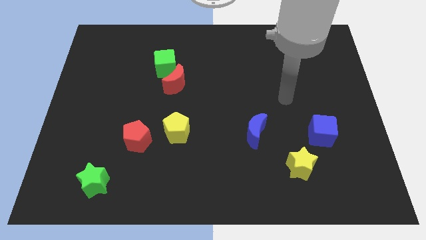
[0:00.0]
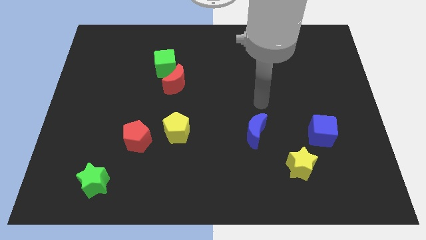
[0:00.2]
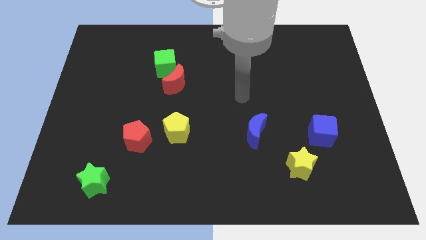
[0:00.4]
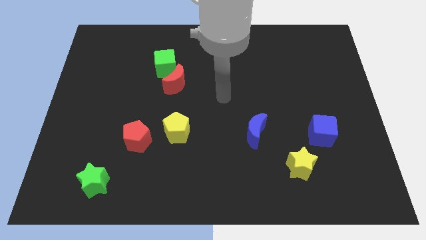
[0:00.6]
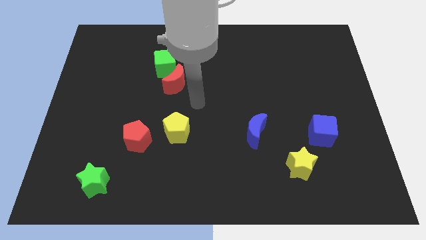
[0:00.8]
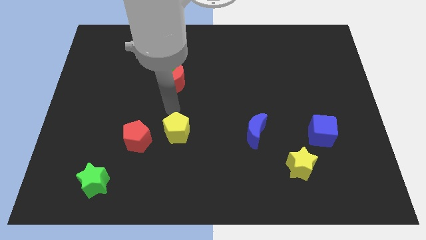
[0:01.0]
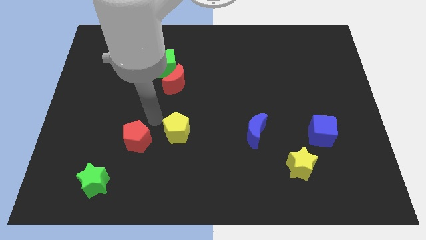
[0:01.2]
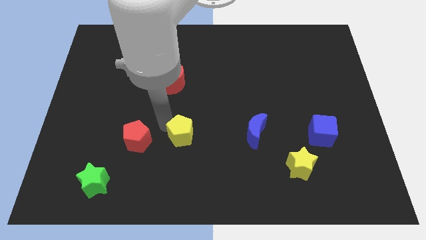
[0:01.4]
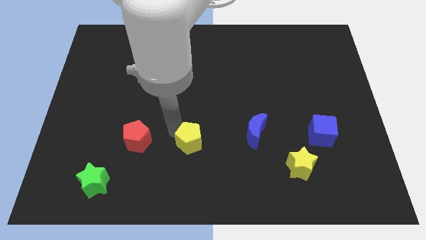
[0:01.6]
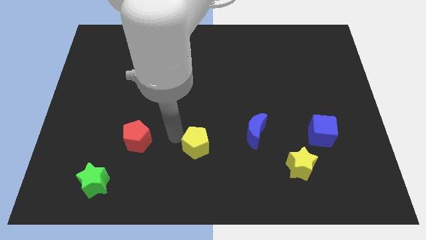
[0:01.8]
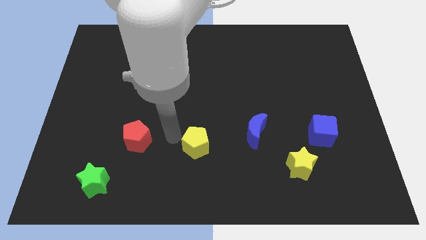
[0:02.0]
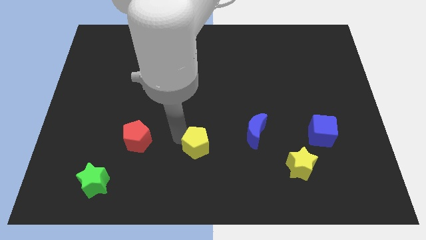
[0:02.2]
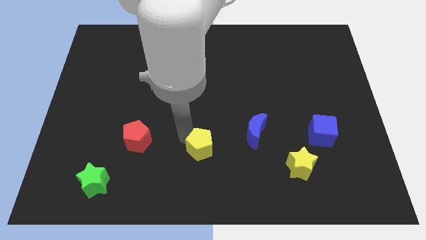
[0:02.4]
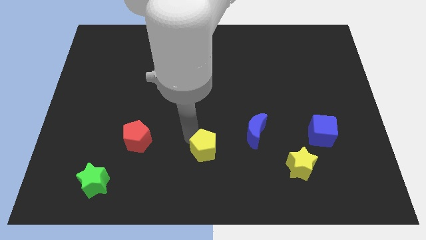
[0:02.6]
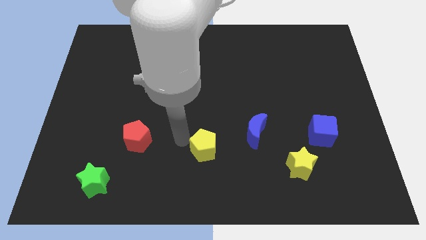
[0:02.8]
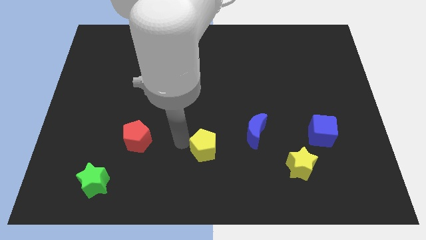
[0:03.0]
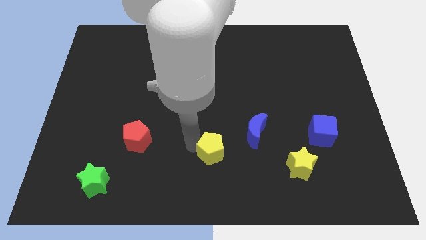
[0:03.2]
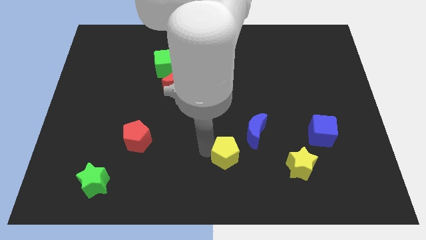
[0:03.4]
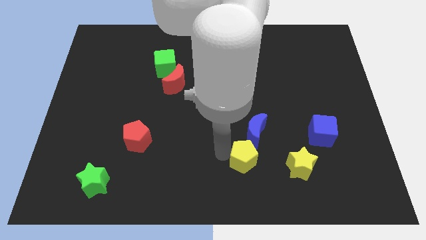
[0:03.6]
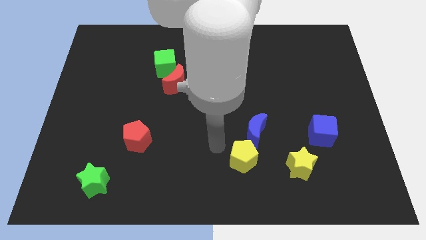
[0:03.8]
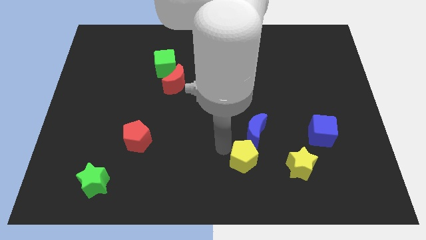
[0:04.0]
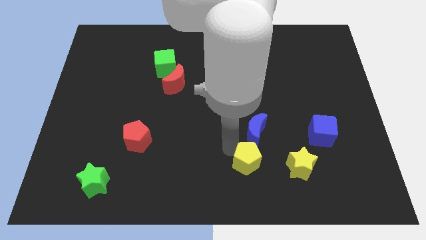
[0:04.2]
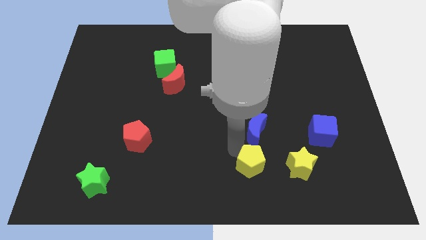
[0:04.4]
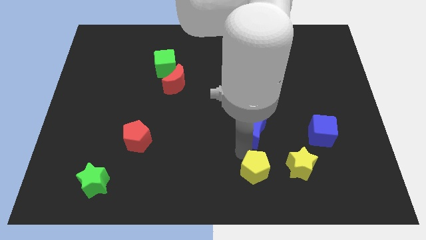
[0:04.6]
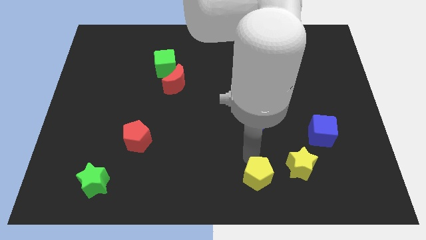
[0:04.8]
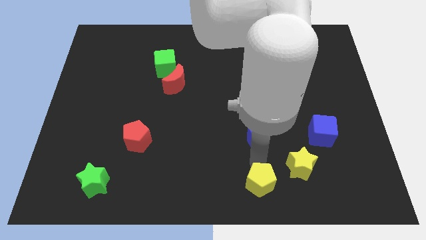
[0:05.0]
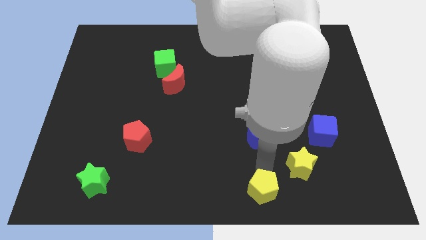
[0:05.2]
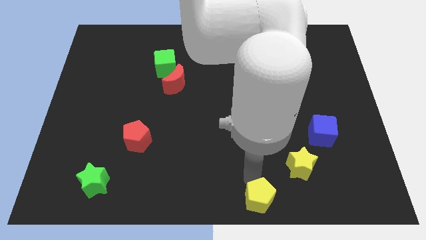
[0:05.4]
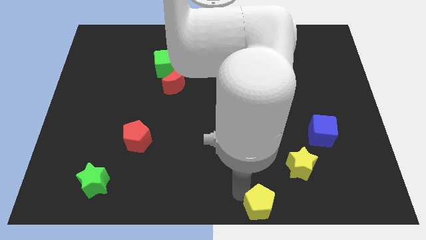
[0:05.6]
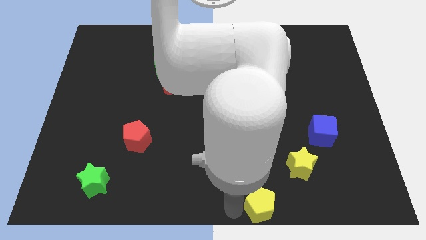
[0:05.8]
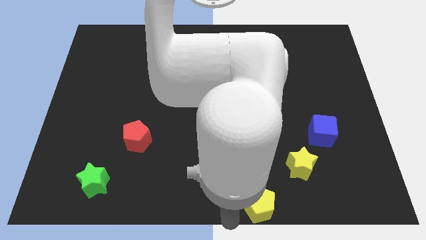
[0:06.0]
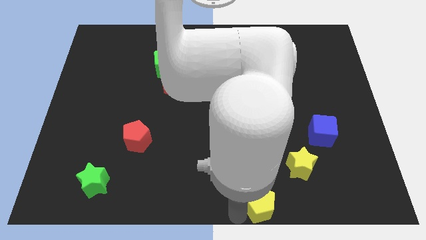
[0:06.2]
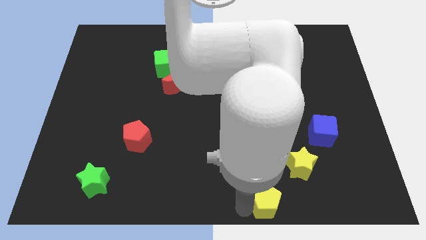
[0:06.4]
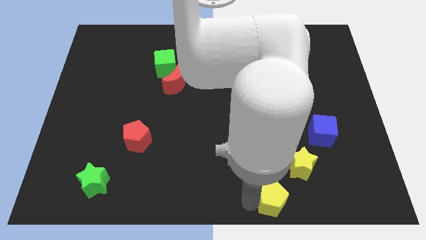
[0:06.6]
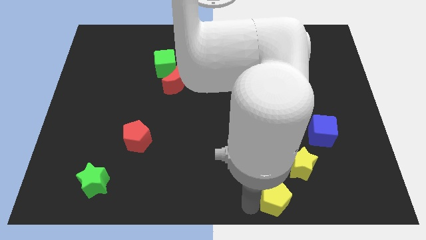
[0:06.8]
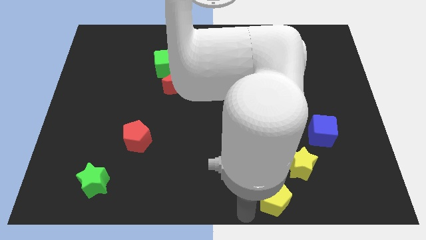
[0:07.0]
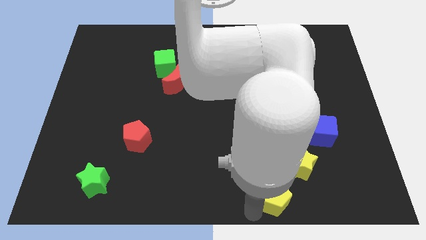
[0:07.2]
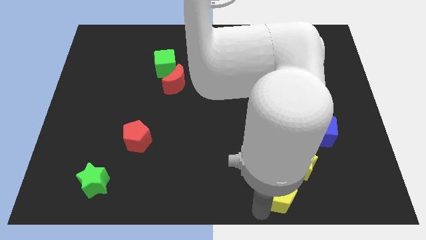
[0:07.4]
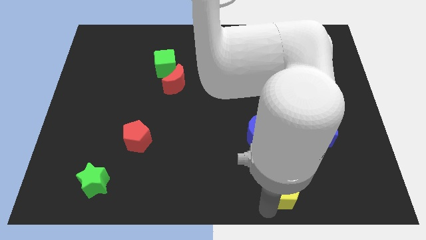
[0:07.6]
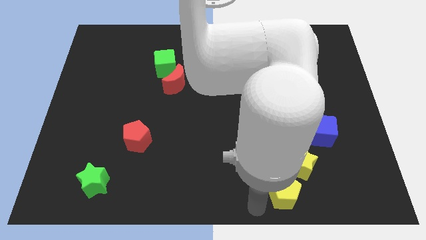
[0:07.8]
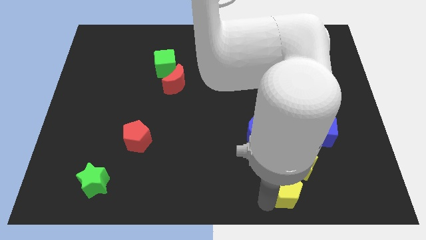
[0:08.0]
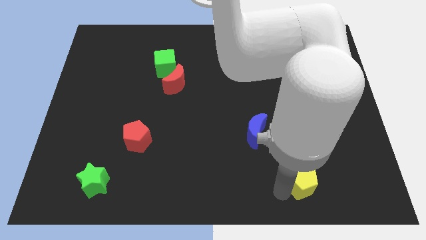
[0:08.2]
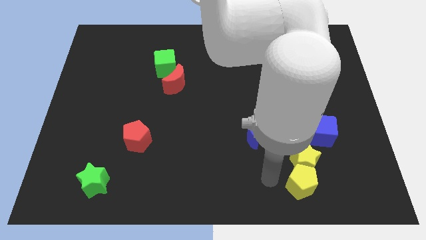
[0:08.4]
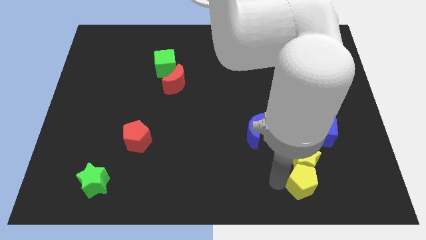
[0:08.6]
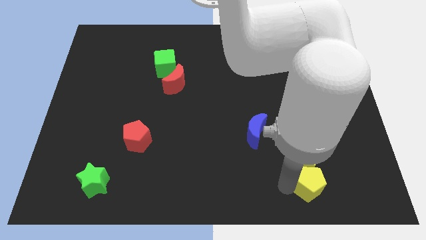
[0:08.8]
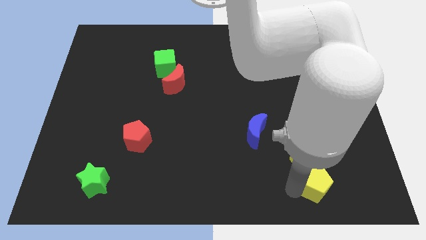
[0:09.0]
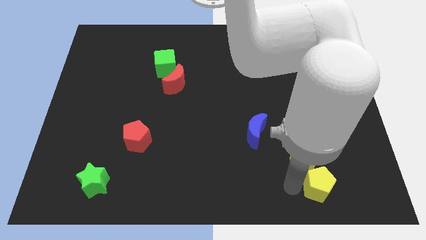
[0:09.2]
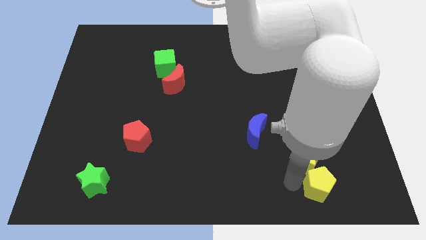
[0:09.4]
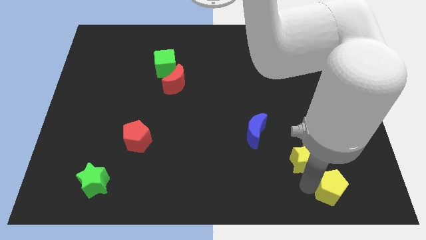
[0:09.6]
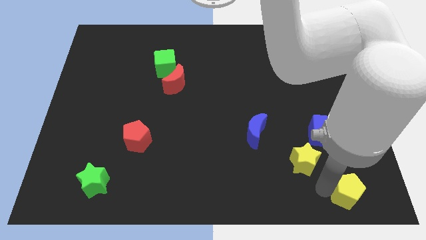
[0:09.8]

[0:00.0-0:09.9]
put the yellow pentagon to the bottom right corner

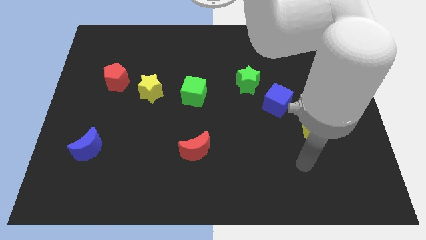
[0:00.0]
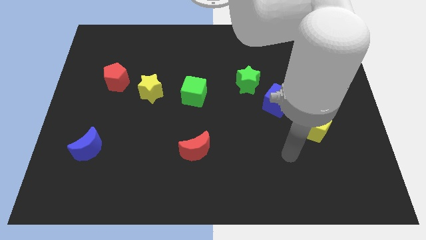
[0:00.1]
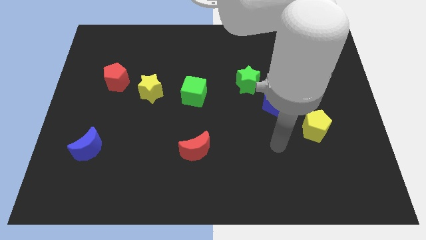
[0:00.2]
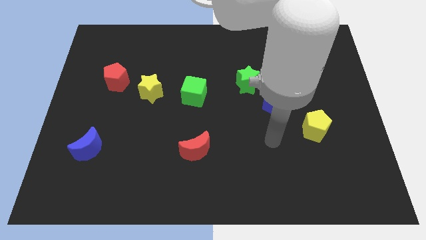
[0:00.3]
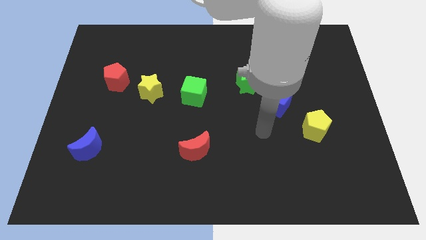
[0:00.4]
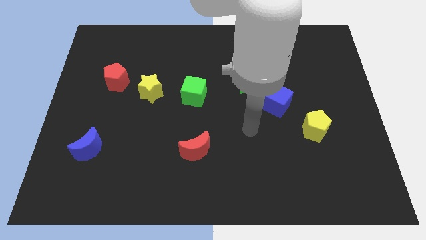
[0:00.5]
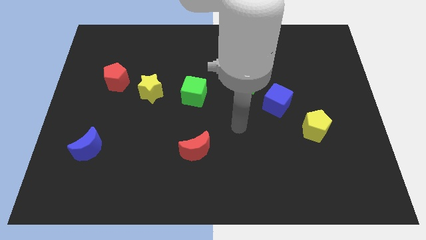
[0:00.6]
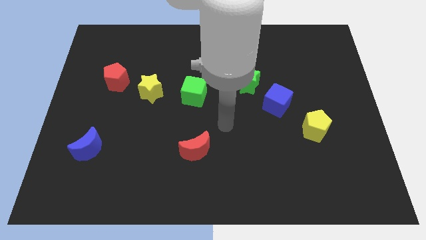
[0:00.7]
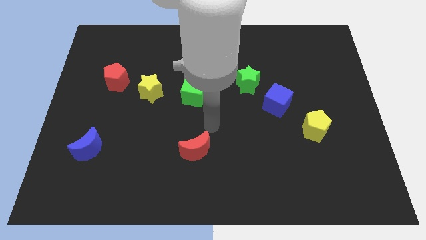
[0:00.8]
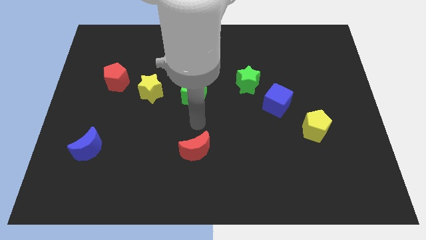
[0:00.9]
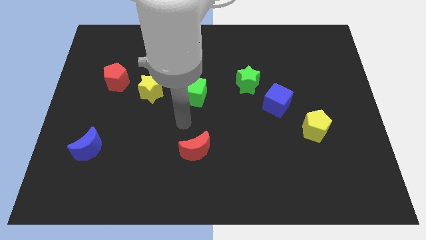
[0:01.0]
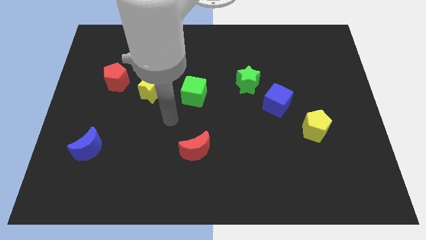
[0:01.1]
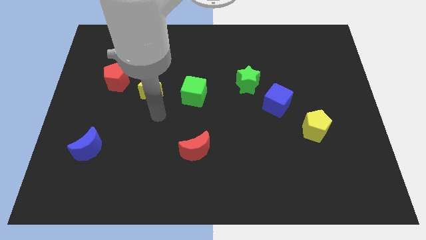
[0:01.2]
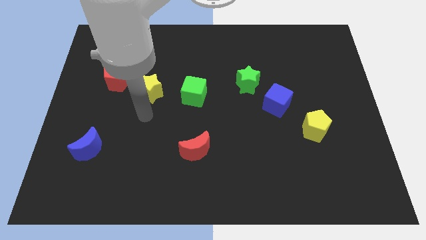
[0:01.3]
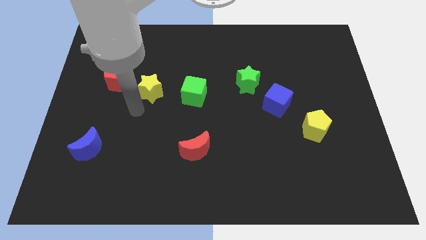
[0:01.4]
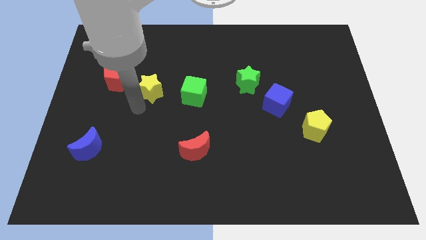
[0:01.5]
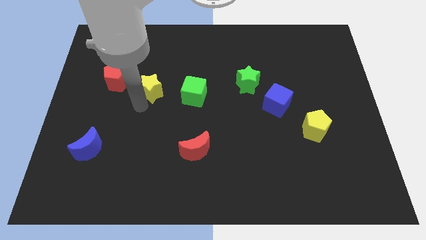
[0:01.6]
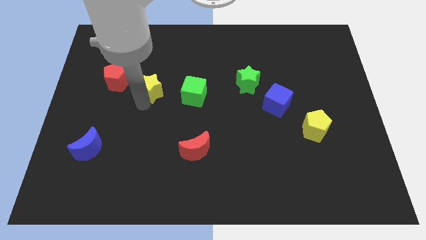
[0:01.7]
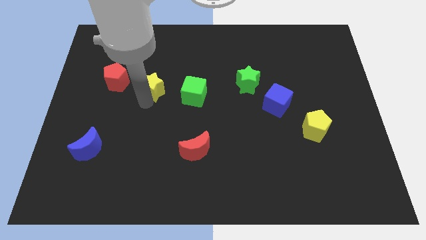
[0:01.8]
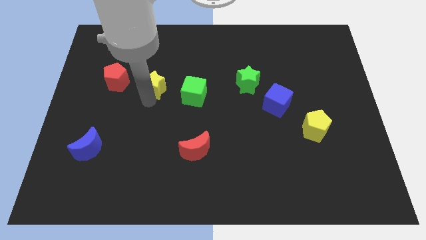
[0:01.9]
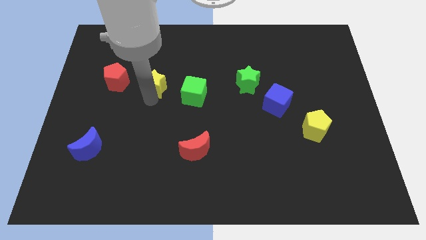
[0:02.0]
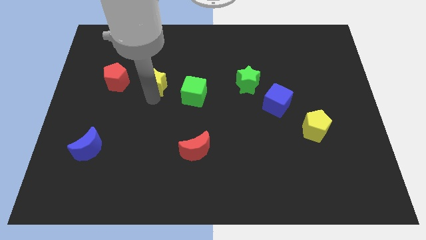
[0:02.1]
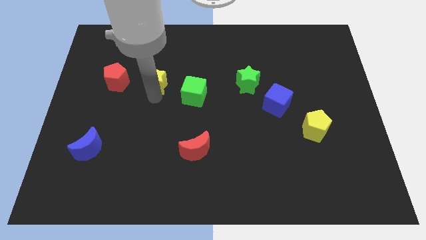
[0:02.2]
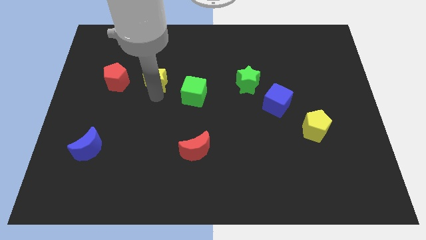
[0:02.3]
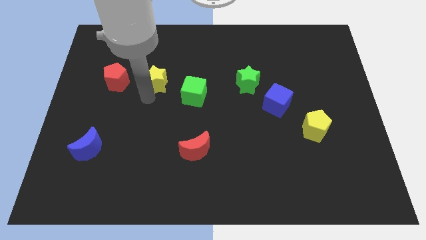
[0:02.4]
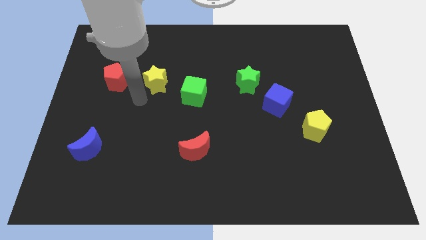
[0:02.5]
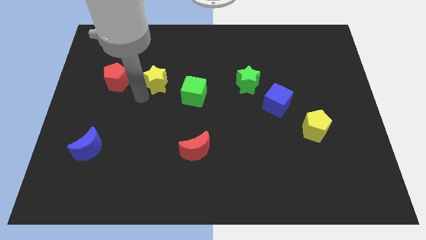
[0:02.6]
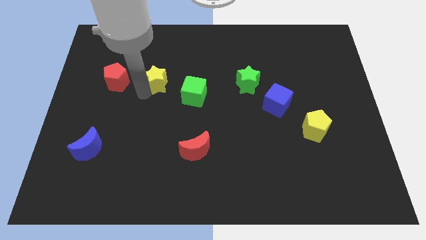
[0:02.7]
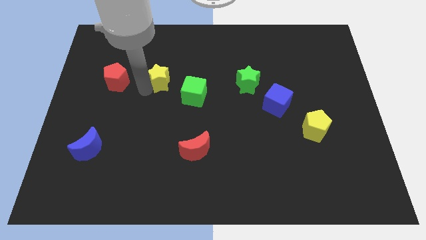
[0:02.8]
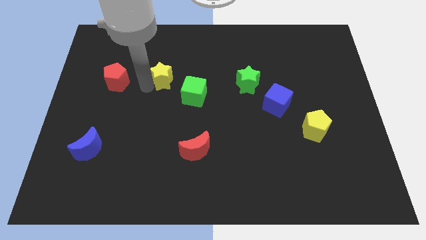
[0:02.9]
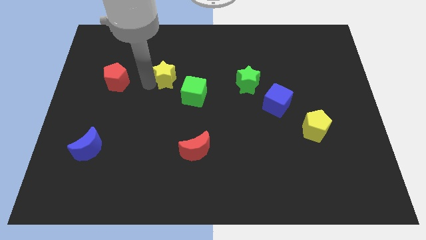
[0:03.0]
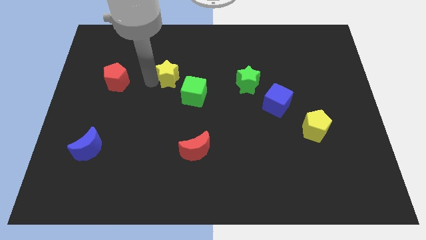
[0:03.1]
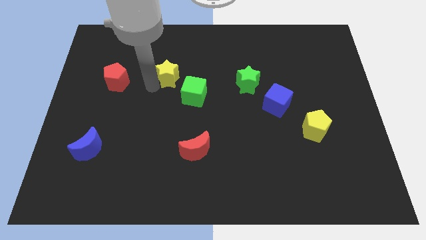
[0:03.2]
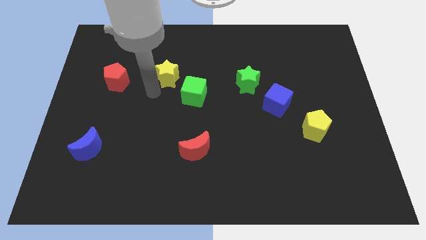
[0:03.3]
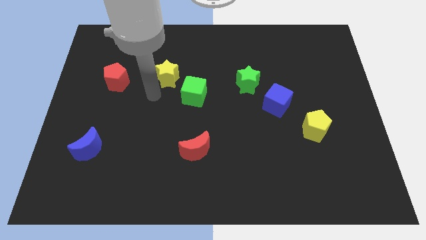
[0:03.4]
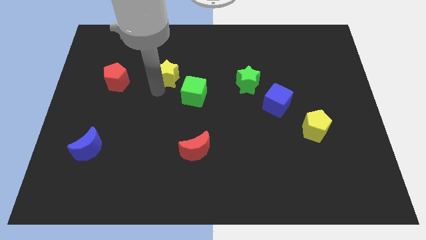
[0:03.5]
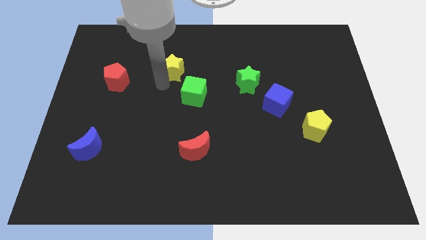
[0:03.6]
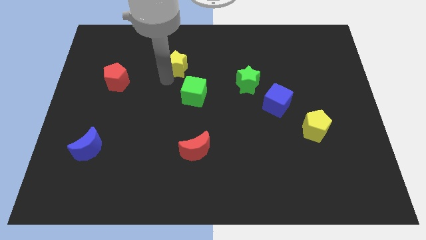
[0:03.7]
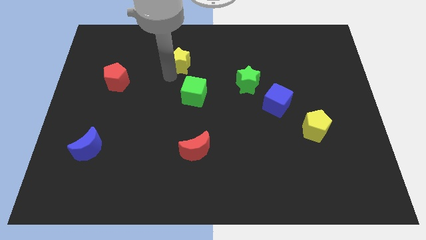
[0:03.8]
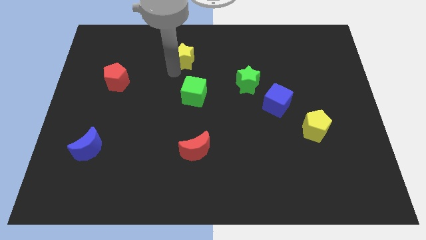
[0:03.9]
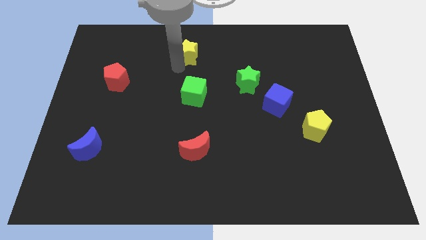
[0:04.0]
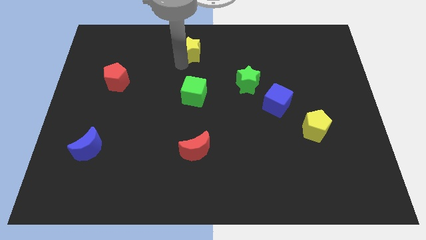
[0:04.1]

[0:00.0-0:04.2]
slide the yellow star to the towards your base
